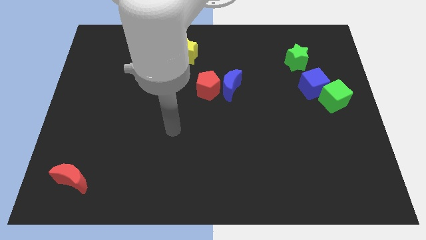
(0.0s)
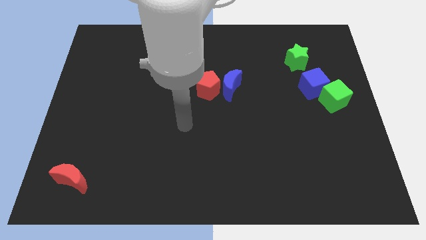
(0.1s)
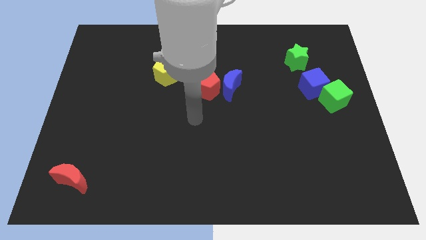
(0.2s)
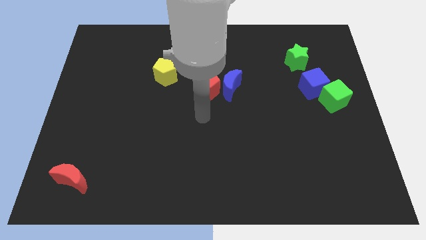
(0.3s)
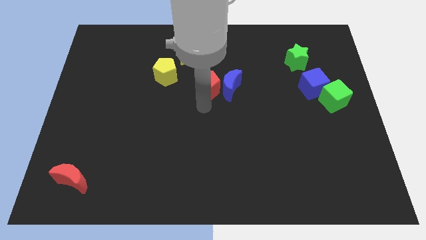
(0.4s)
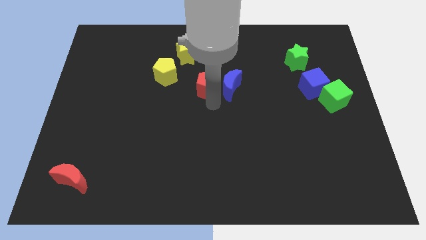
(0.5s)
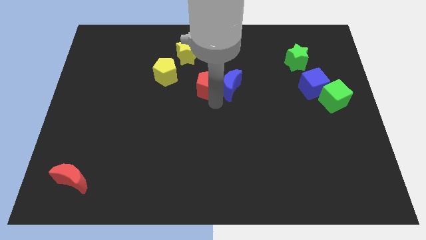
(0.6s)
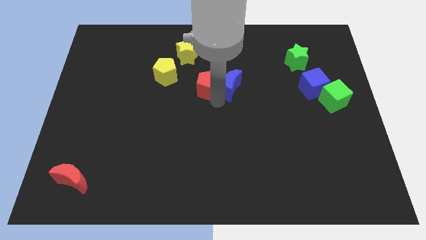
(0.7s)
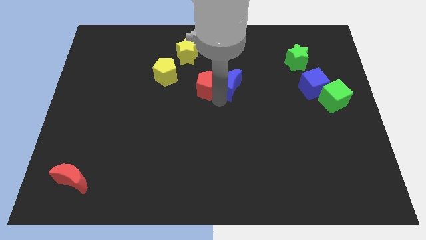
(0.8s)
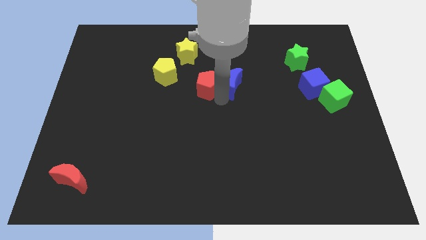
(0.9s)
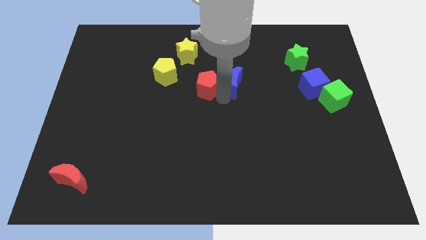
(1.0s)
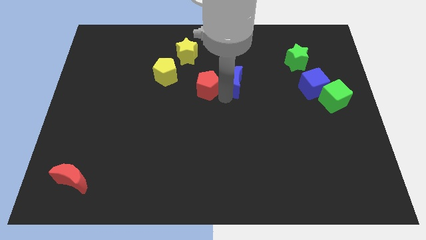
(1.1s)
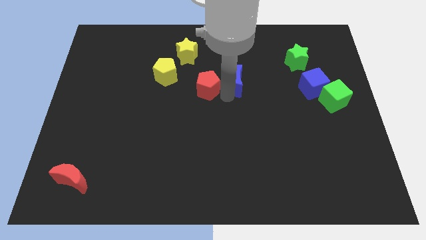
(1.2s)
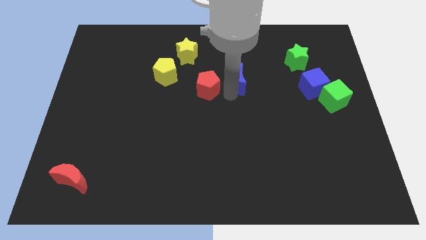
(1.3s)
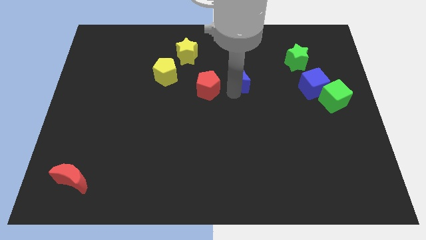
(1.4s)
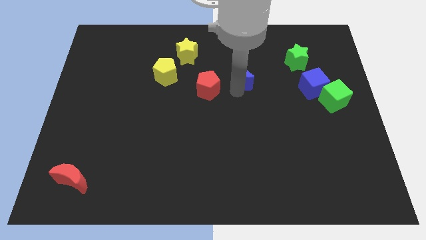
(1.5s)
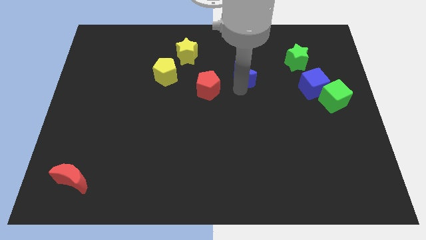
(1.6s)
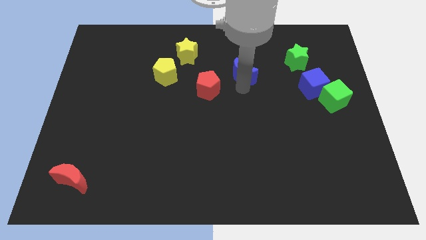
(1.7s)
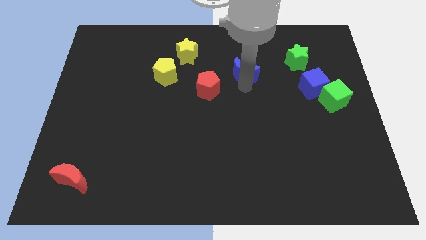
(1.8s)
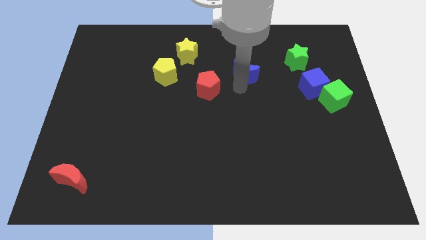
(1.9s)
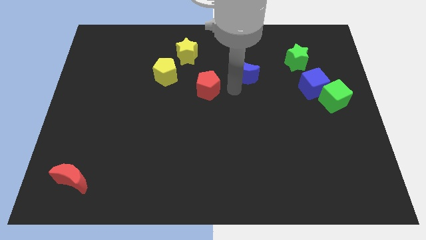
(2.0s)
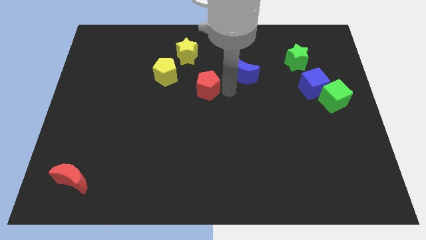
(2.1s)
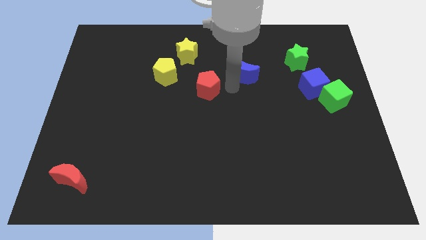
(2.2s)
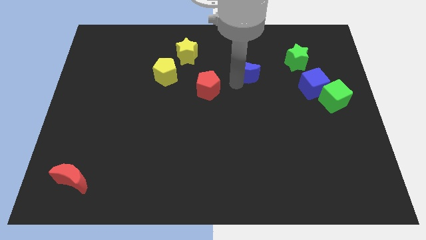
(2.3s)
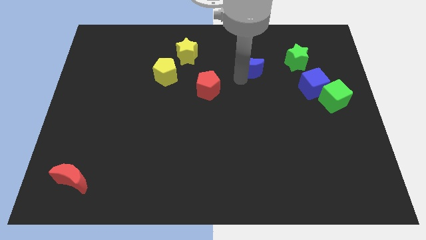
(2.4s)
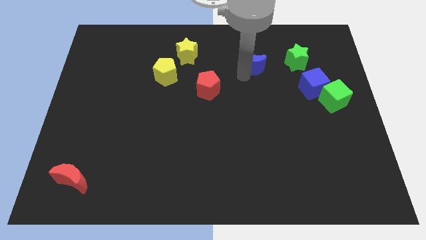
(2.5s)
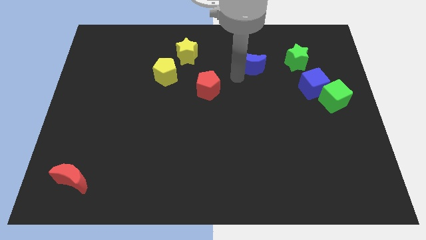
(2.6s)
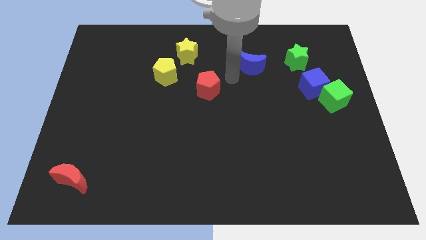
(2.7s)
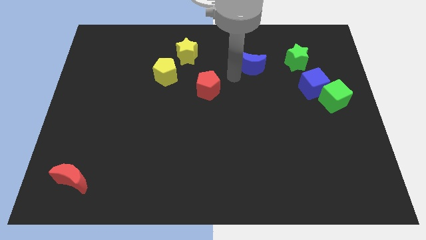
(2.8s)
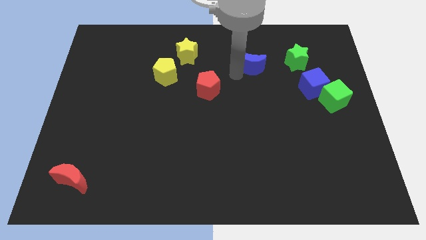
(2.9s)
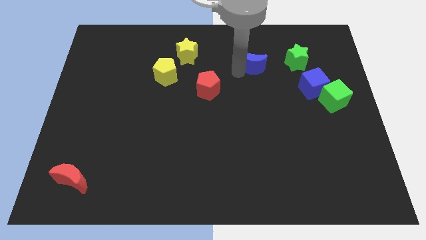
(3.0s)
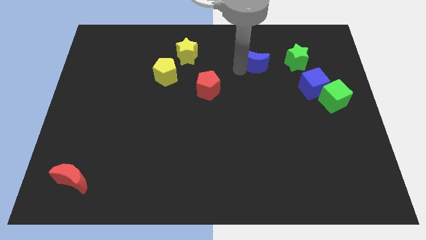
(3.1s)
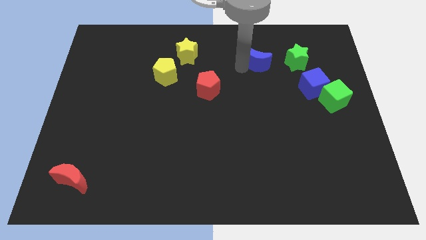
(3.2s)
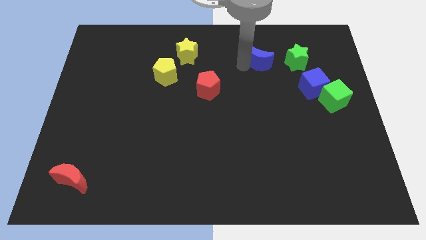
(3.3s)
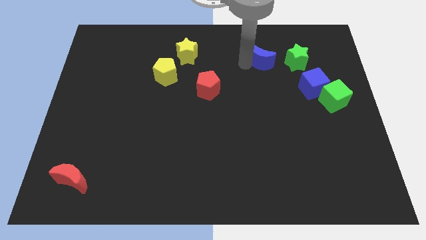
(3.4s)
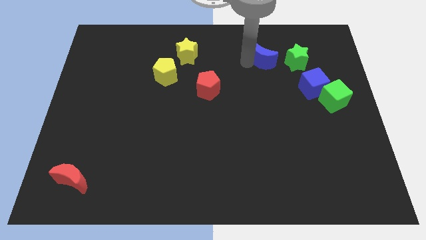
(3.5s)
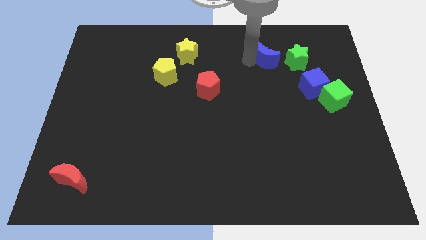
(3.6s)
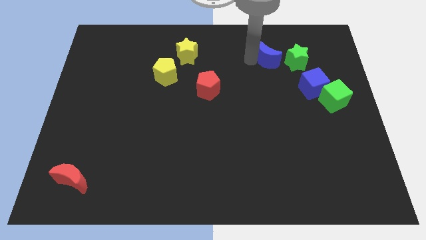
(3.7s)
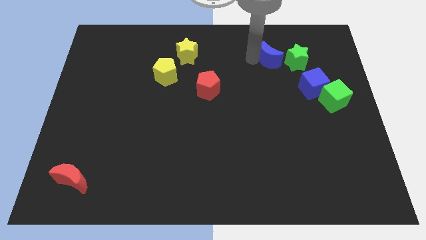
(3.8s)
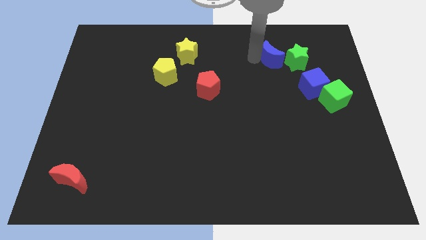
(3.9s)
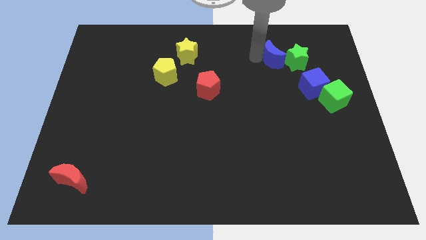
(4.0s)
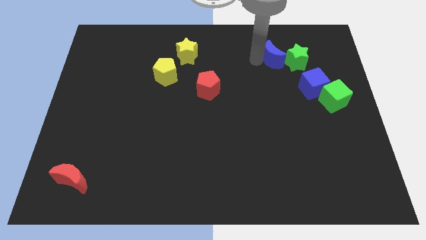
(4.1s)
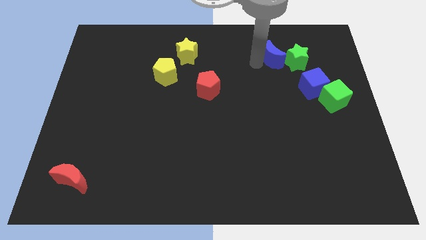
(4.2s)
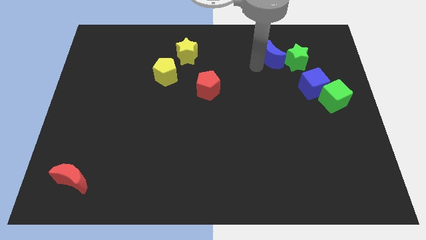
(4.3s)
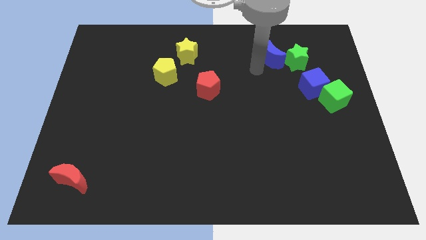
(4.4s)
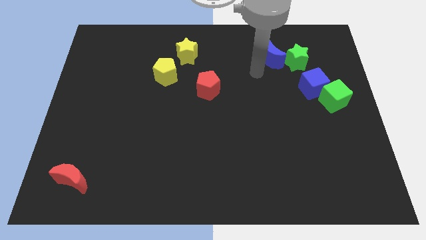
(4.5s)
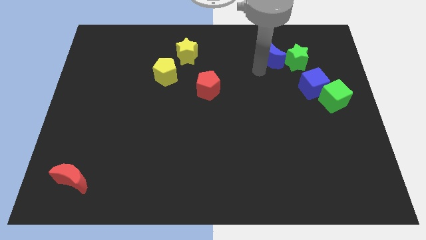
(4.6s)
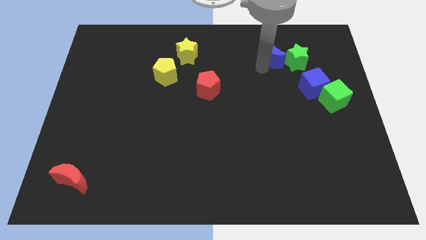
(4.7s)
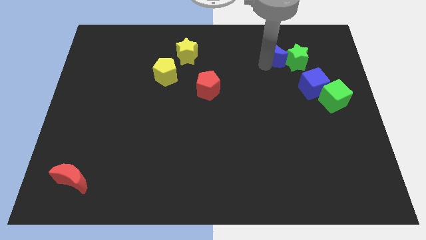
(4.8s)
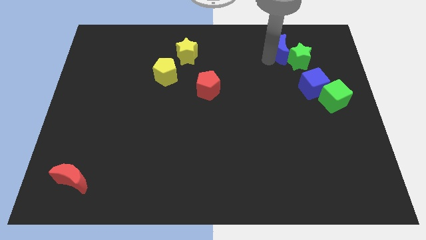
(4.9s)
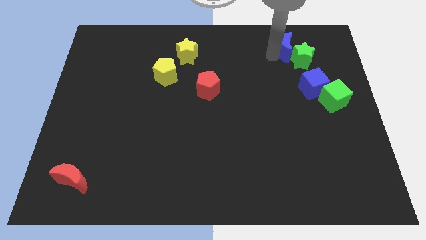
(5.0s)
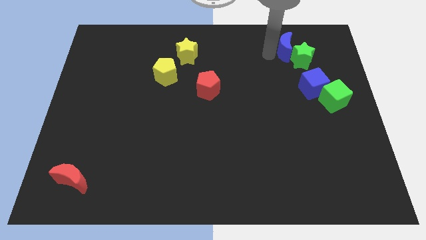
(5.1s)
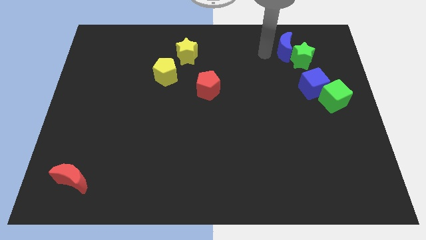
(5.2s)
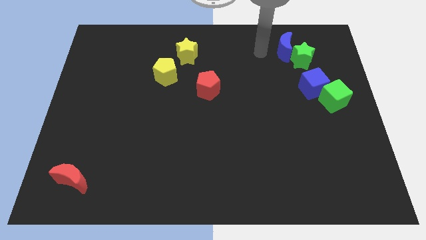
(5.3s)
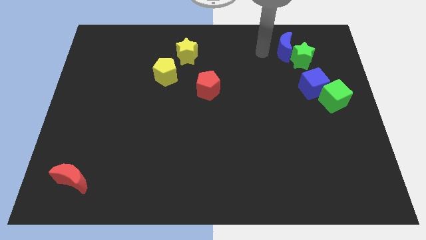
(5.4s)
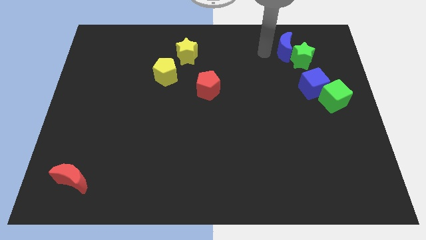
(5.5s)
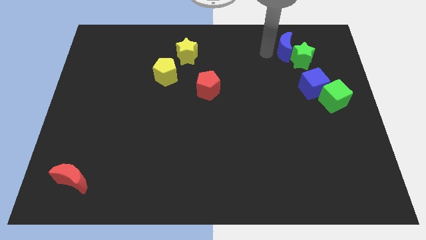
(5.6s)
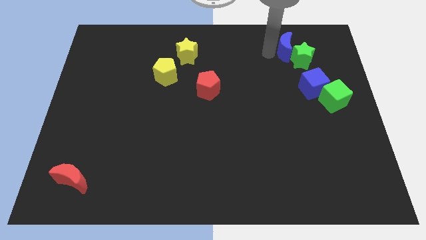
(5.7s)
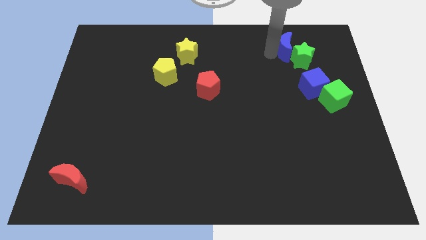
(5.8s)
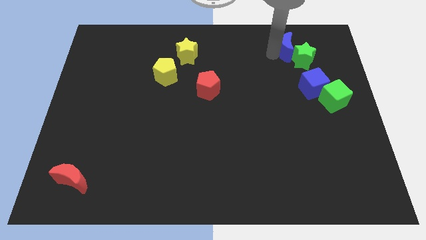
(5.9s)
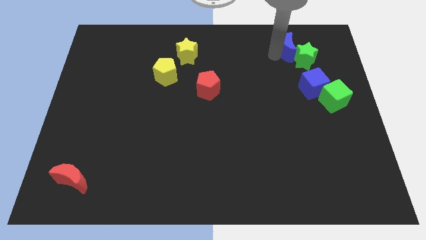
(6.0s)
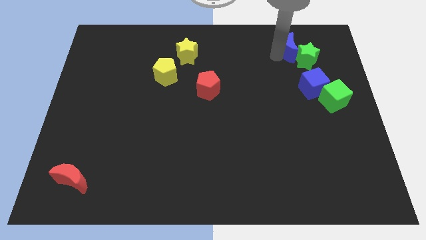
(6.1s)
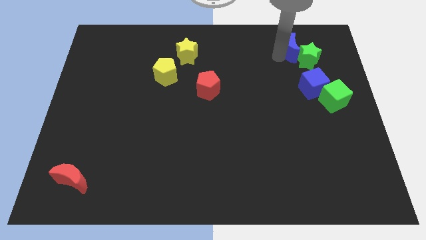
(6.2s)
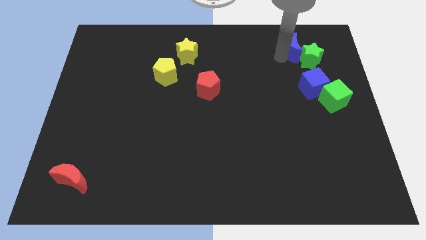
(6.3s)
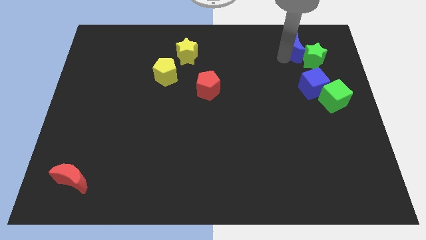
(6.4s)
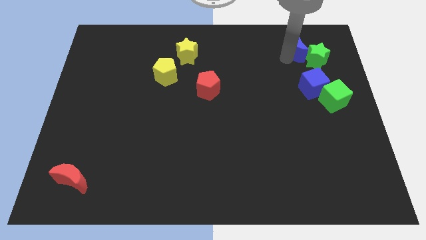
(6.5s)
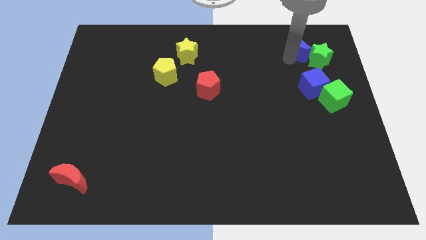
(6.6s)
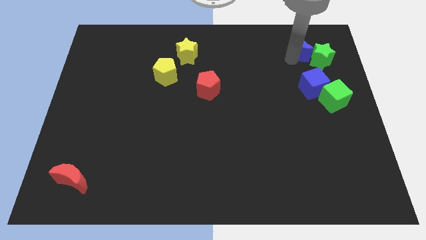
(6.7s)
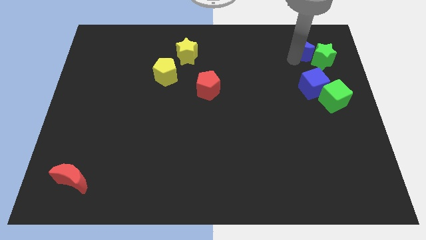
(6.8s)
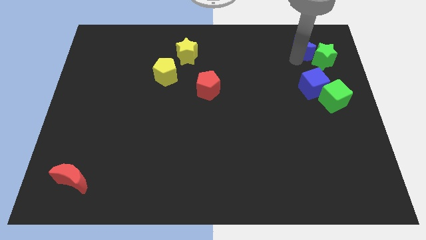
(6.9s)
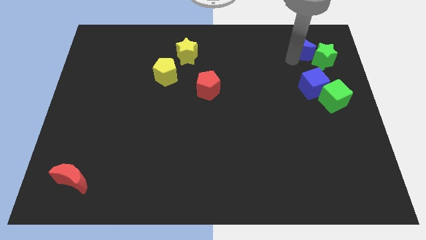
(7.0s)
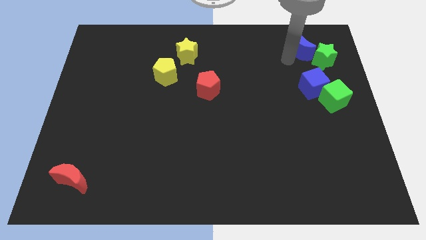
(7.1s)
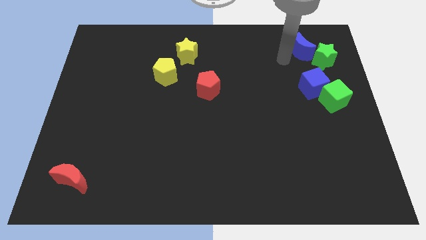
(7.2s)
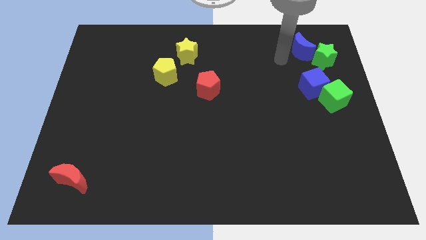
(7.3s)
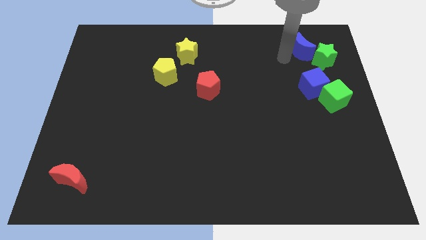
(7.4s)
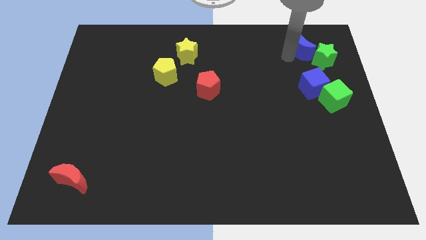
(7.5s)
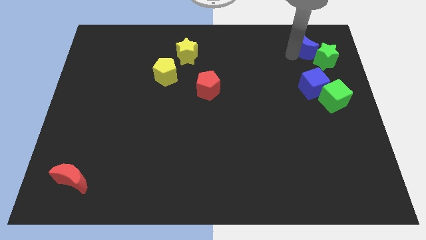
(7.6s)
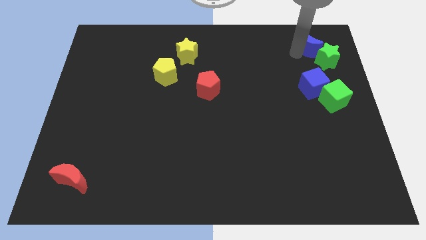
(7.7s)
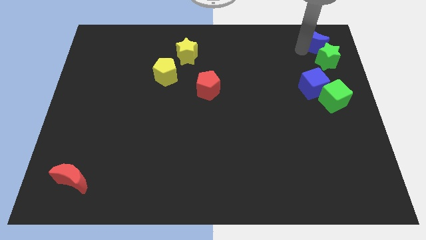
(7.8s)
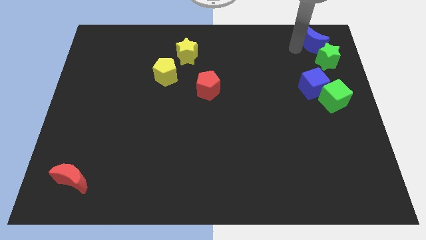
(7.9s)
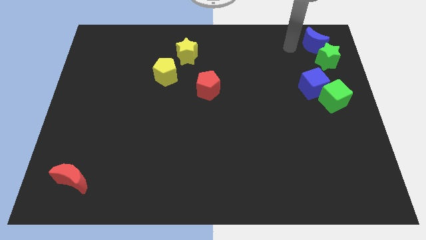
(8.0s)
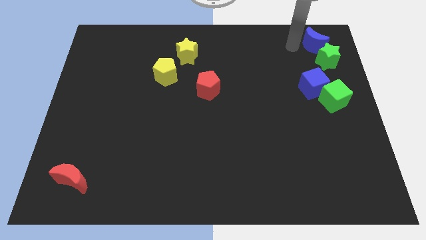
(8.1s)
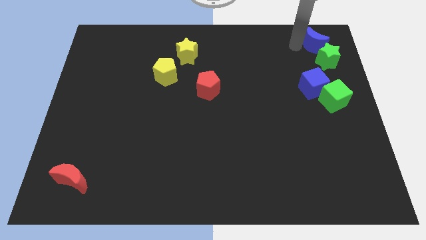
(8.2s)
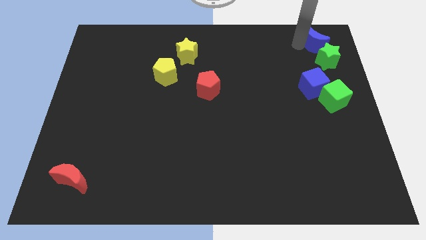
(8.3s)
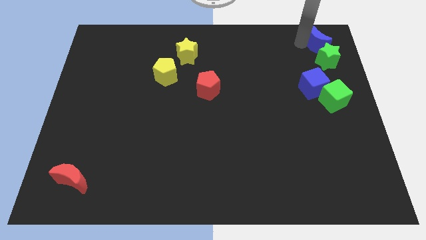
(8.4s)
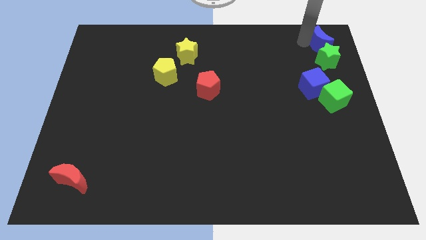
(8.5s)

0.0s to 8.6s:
push the blue moon to the top right
